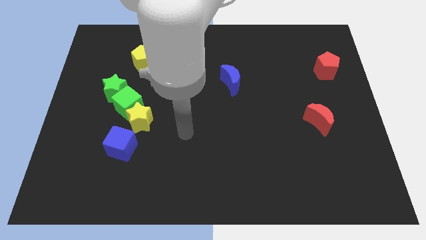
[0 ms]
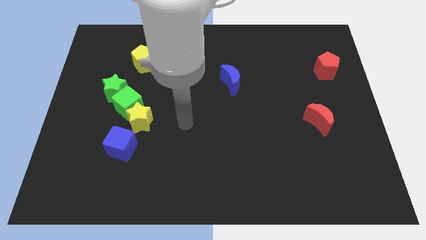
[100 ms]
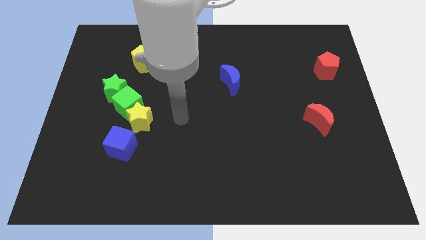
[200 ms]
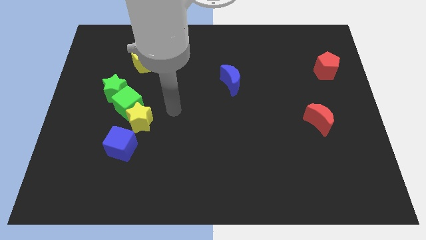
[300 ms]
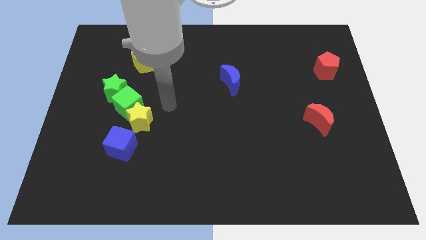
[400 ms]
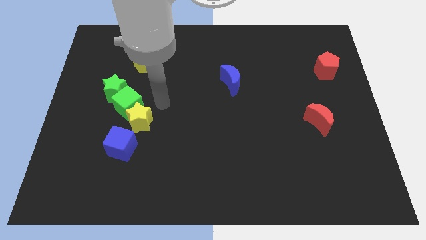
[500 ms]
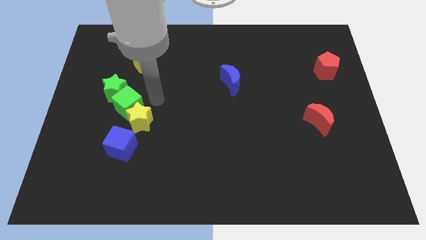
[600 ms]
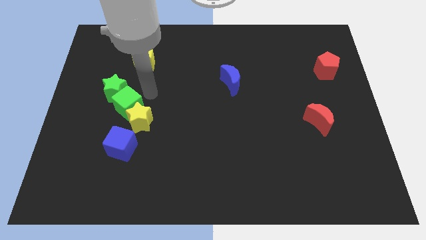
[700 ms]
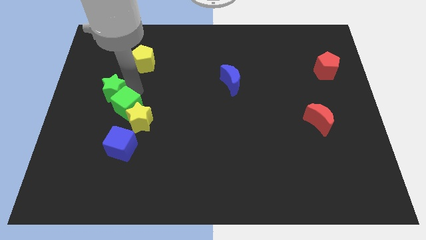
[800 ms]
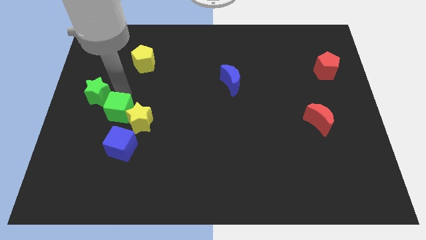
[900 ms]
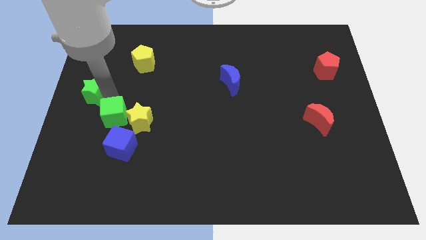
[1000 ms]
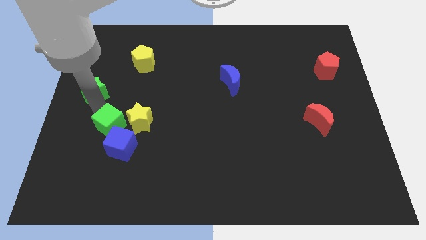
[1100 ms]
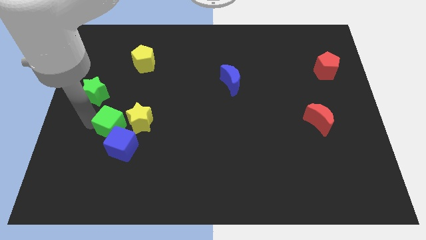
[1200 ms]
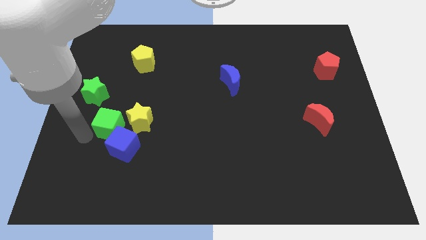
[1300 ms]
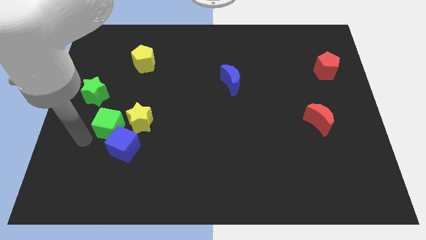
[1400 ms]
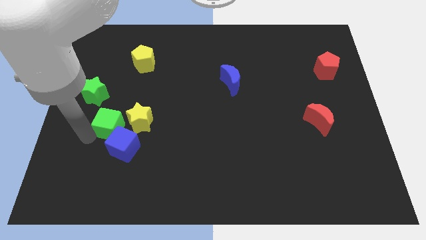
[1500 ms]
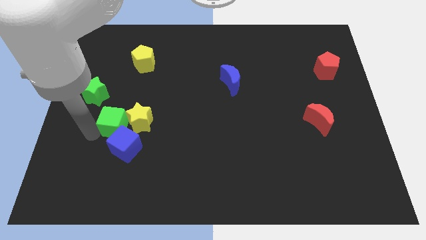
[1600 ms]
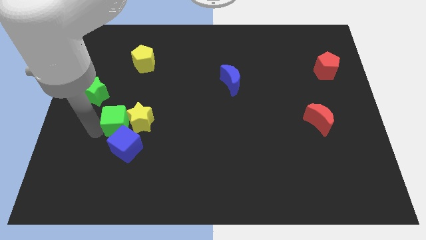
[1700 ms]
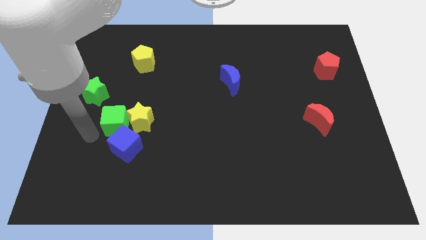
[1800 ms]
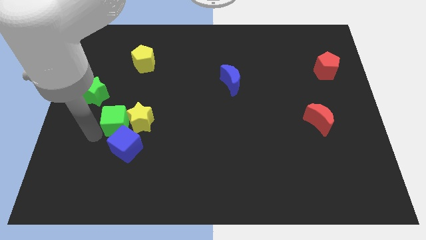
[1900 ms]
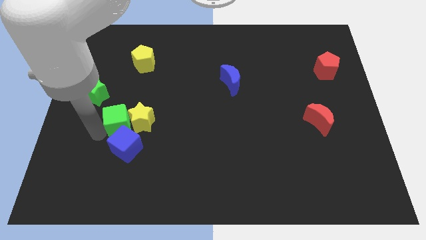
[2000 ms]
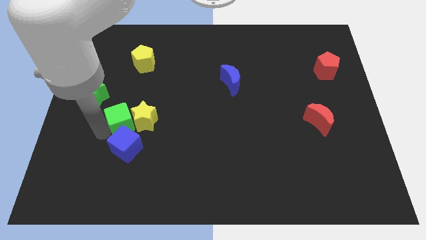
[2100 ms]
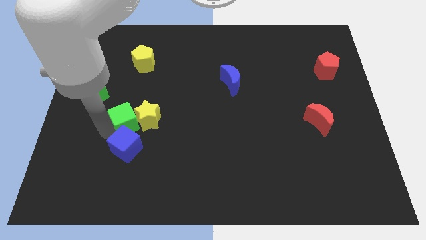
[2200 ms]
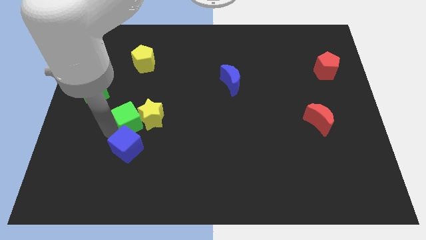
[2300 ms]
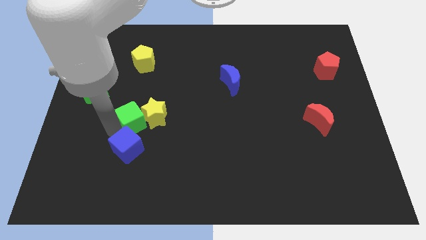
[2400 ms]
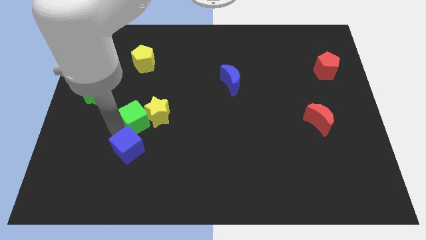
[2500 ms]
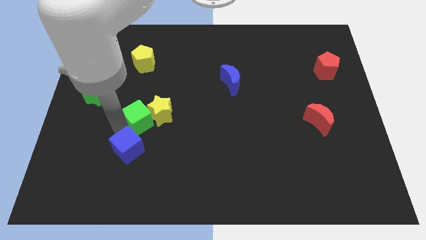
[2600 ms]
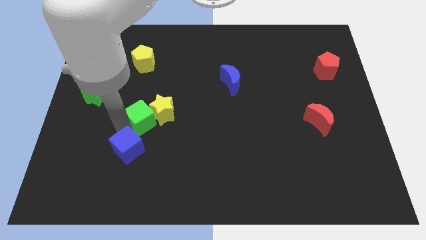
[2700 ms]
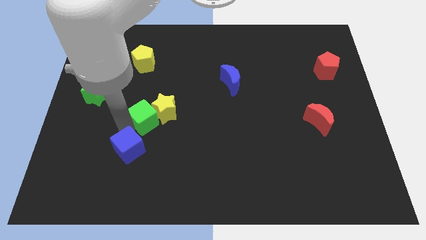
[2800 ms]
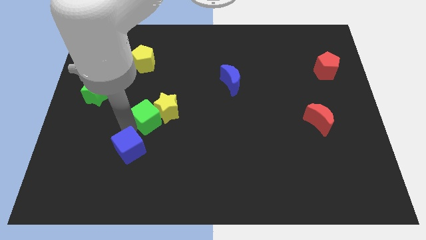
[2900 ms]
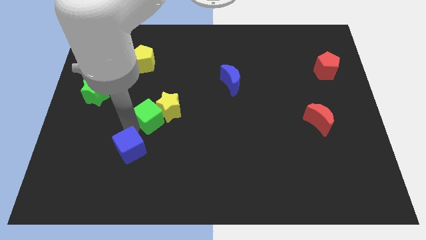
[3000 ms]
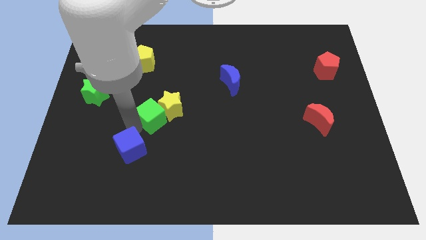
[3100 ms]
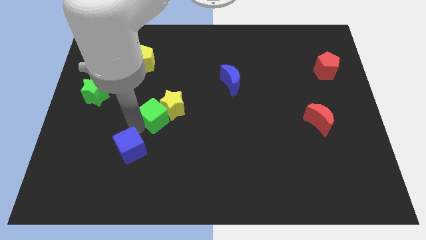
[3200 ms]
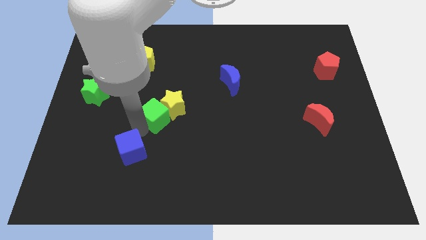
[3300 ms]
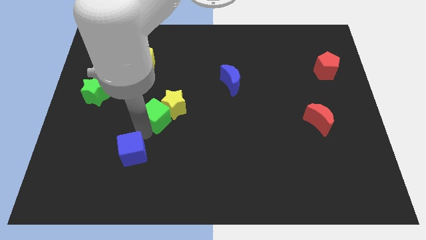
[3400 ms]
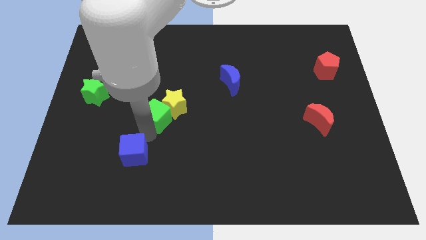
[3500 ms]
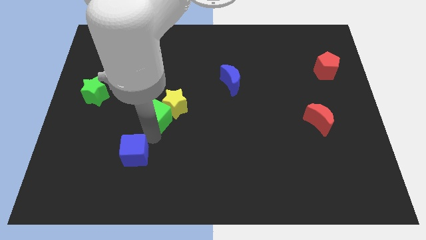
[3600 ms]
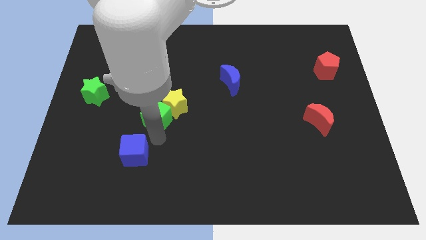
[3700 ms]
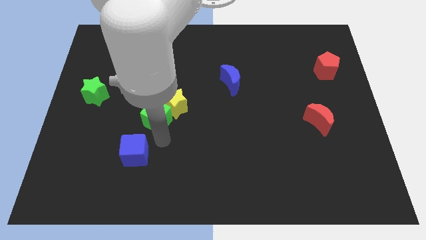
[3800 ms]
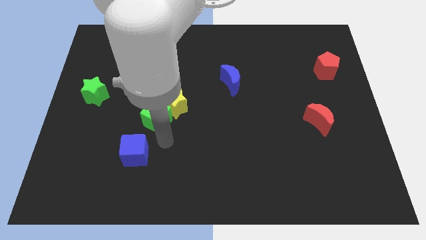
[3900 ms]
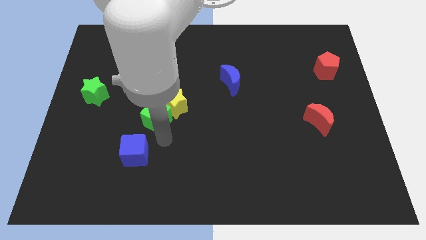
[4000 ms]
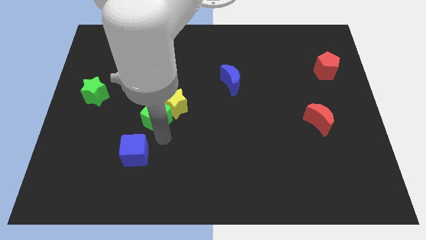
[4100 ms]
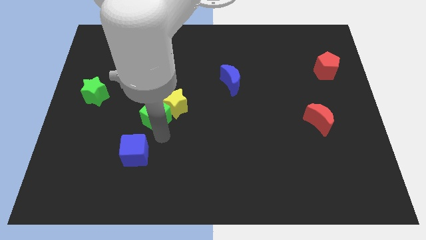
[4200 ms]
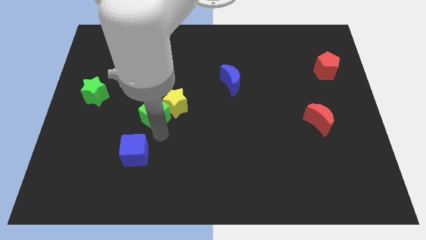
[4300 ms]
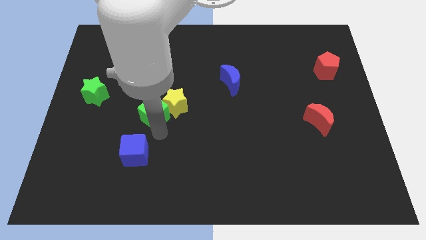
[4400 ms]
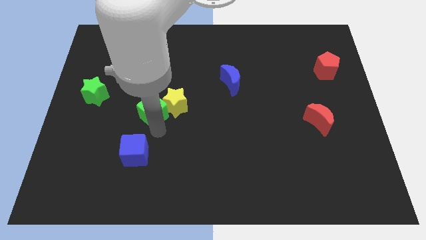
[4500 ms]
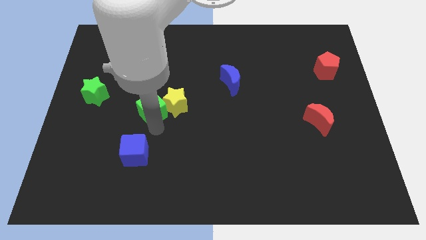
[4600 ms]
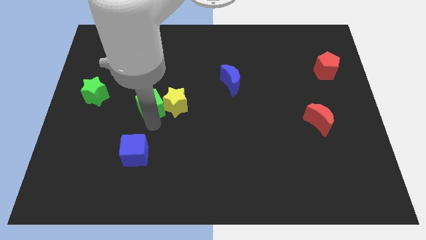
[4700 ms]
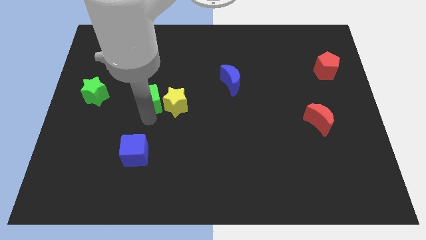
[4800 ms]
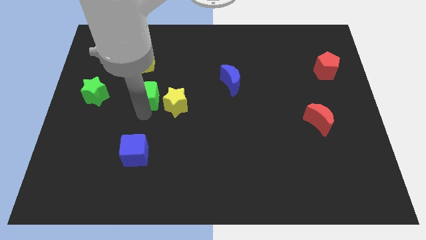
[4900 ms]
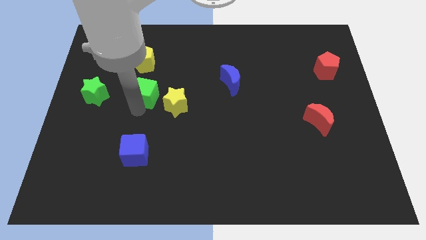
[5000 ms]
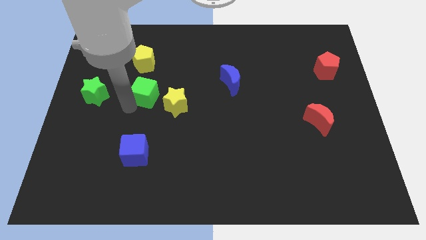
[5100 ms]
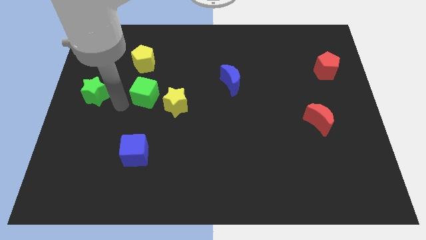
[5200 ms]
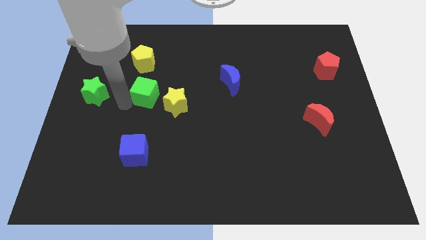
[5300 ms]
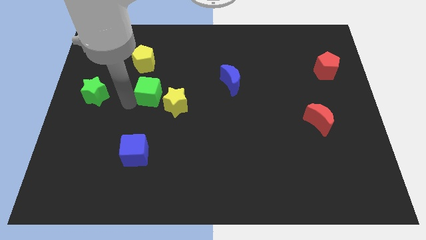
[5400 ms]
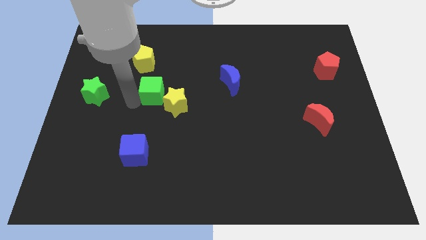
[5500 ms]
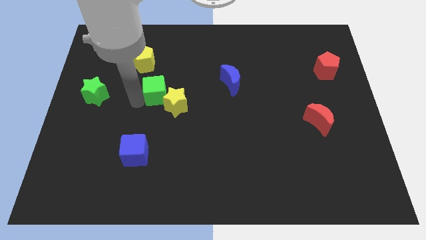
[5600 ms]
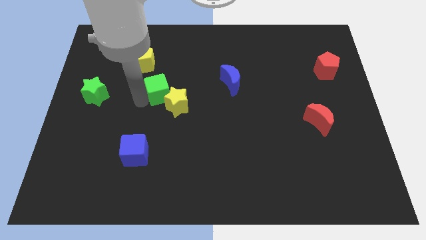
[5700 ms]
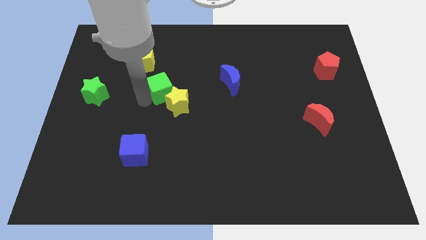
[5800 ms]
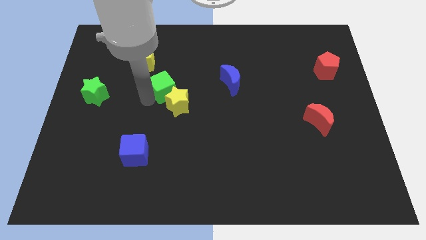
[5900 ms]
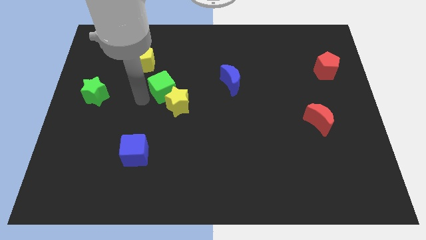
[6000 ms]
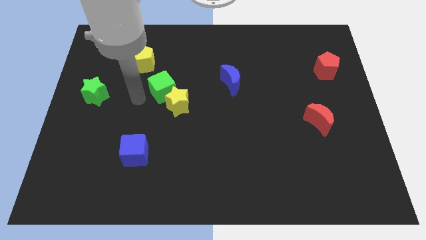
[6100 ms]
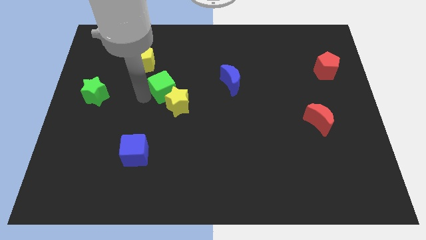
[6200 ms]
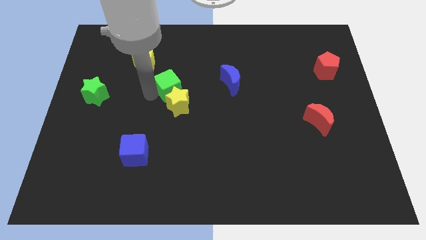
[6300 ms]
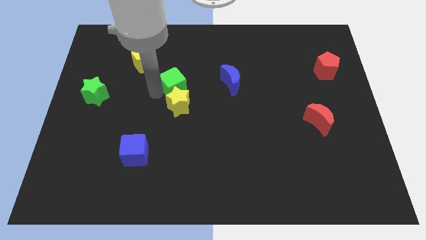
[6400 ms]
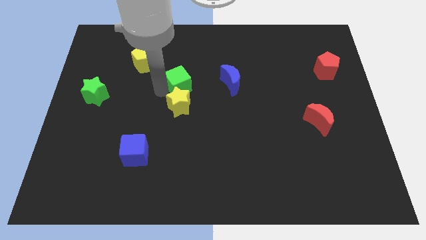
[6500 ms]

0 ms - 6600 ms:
pull the green cube apart from the yellow star and green star

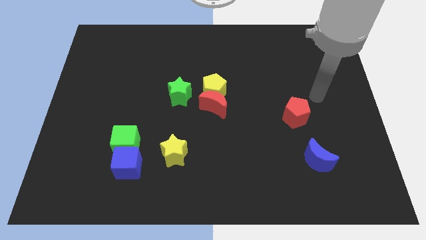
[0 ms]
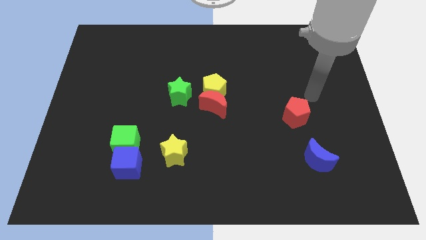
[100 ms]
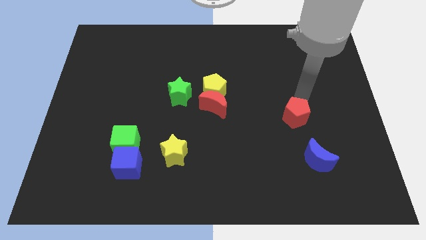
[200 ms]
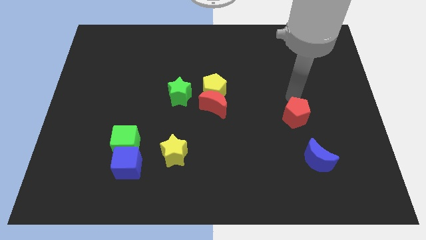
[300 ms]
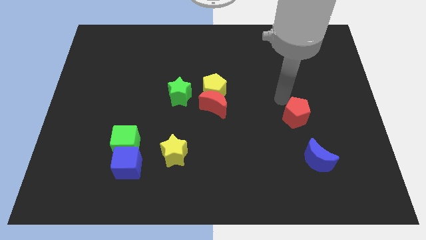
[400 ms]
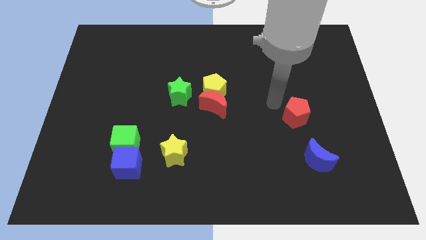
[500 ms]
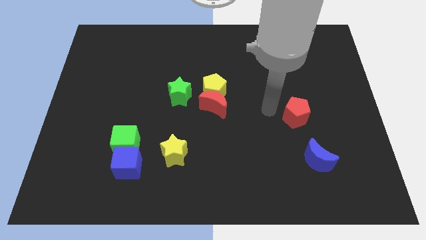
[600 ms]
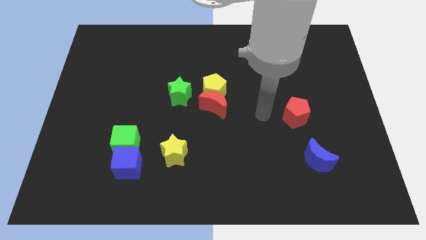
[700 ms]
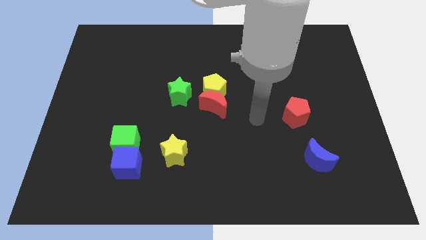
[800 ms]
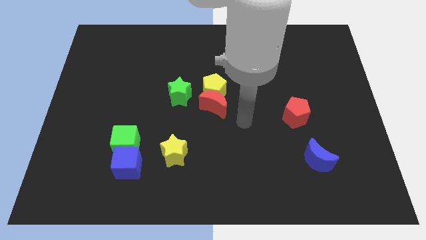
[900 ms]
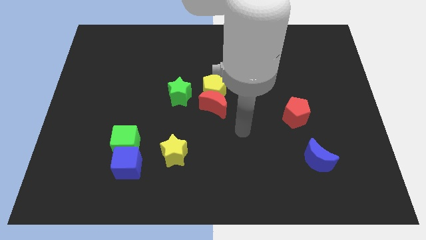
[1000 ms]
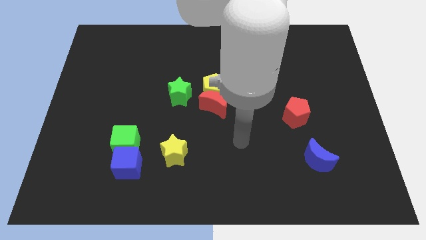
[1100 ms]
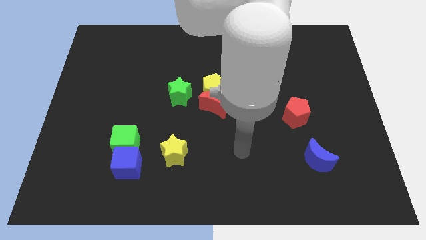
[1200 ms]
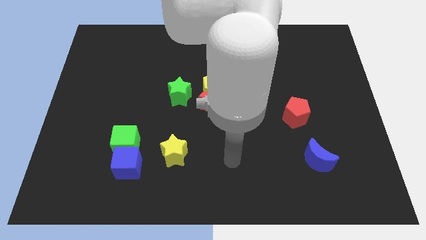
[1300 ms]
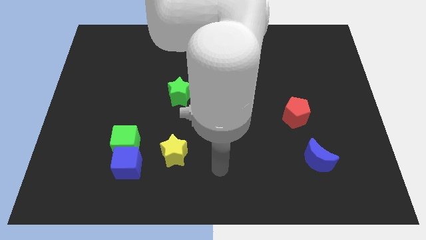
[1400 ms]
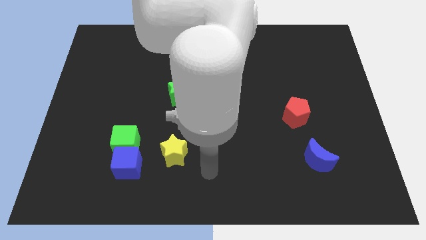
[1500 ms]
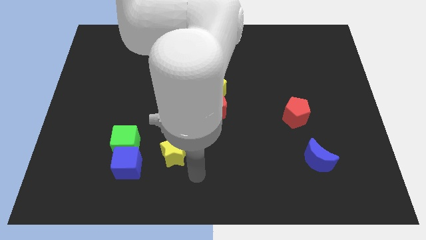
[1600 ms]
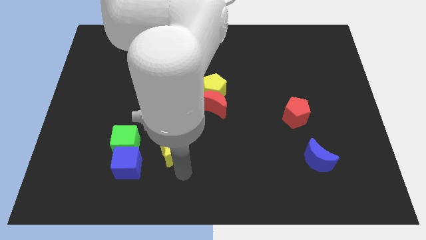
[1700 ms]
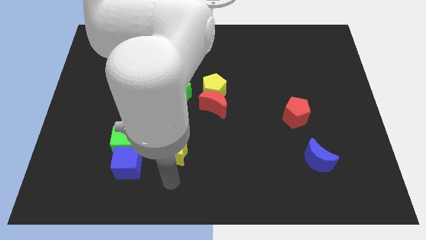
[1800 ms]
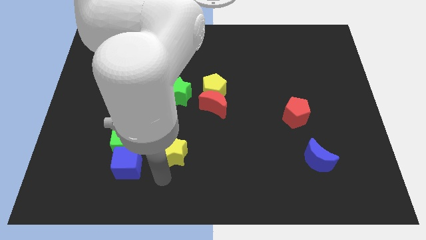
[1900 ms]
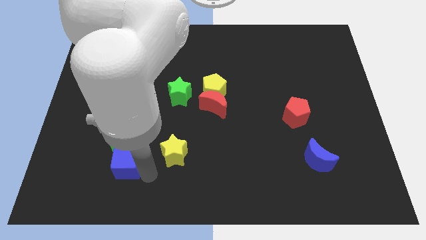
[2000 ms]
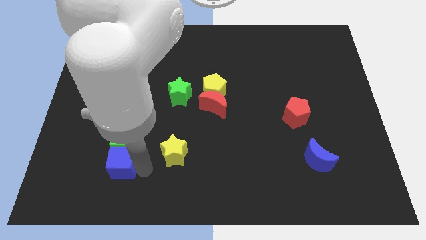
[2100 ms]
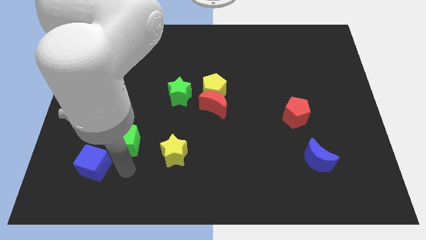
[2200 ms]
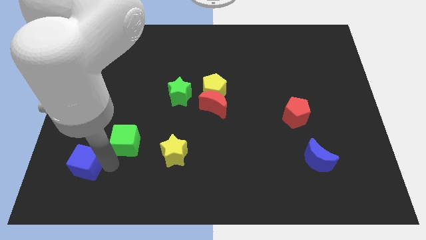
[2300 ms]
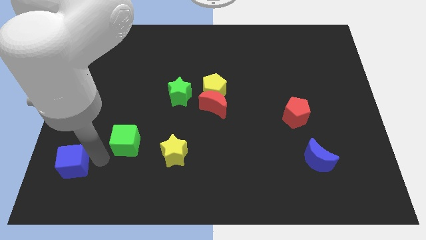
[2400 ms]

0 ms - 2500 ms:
pull the green cube apart from the blue cube

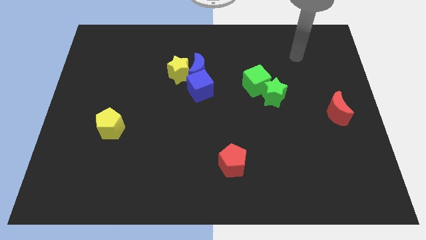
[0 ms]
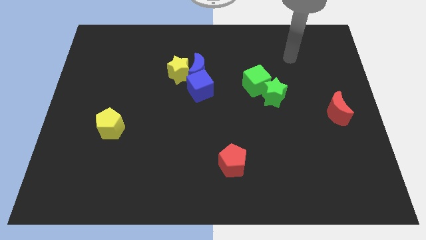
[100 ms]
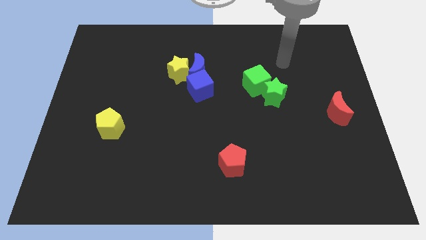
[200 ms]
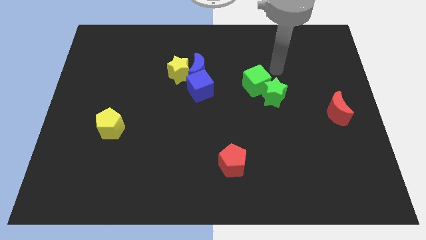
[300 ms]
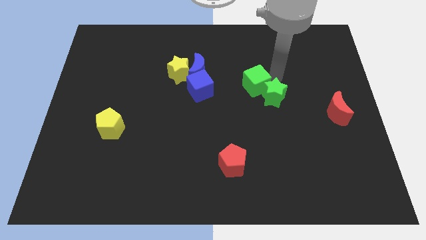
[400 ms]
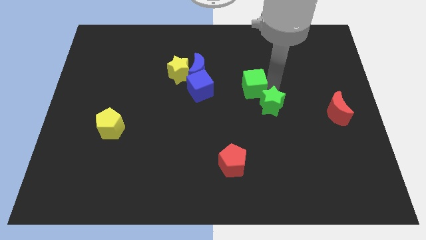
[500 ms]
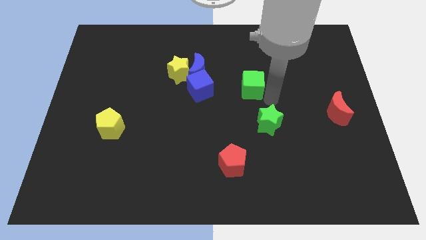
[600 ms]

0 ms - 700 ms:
move the green cube away from the green star
